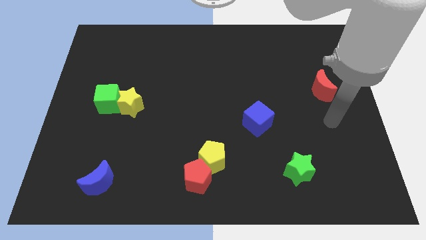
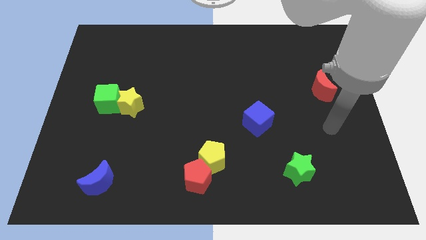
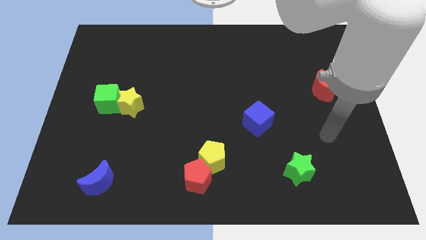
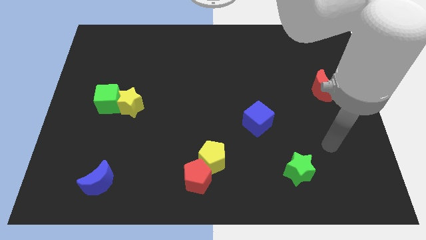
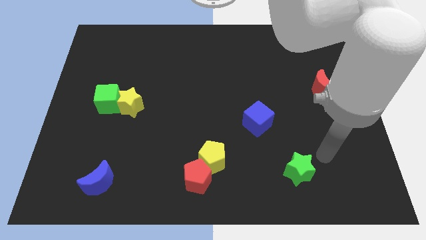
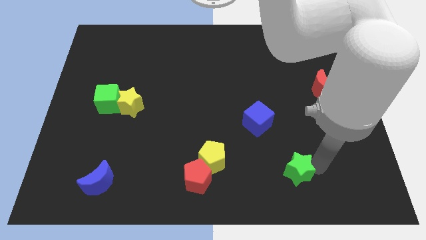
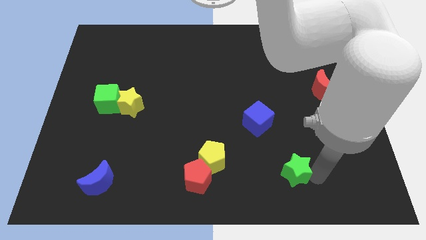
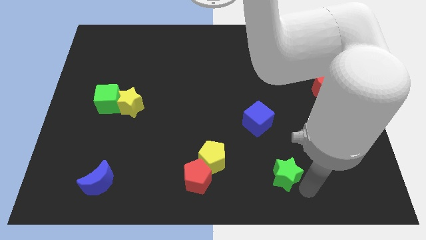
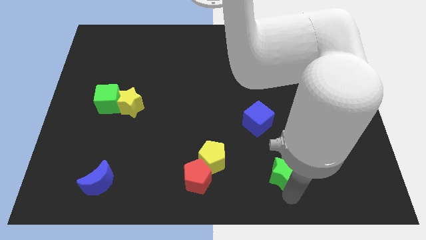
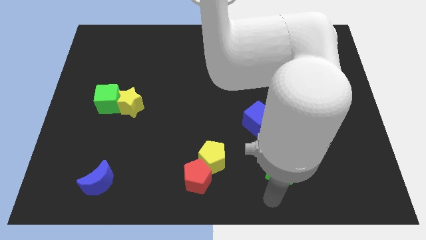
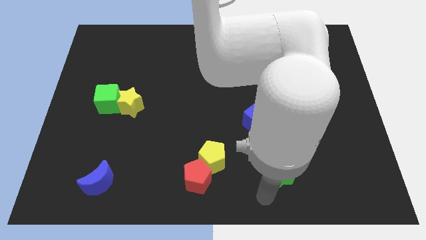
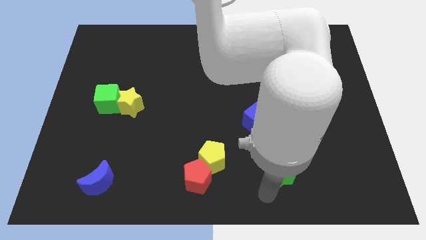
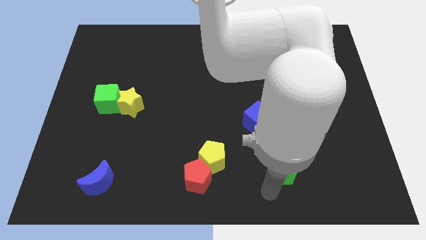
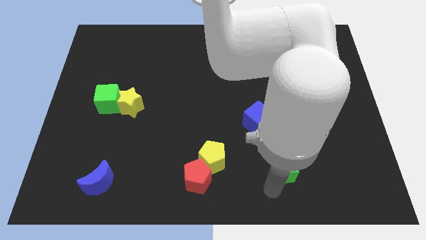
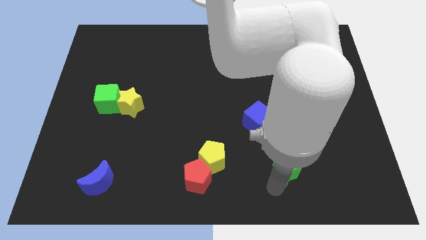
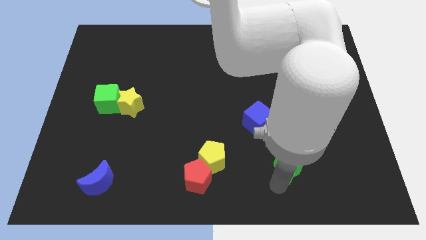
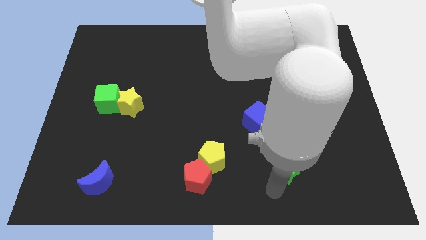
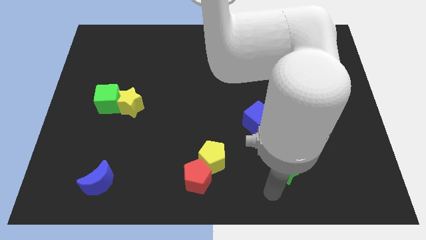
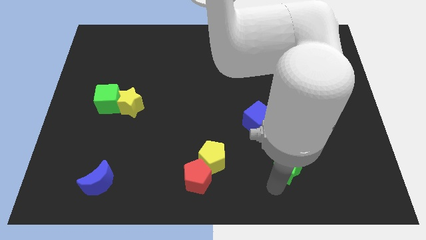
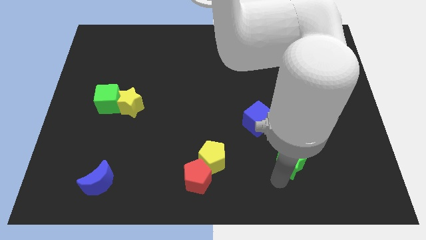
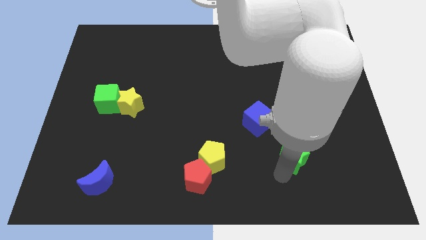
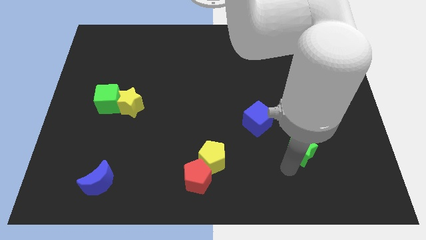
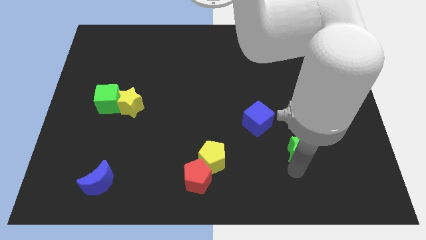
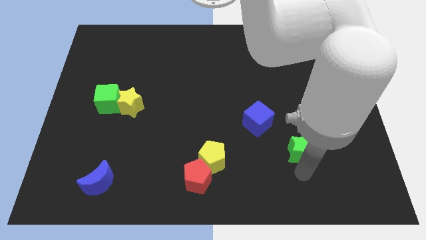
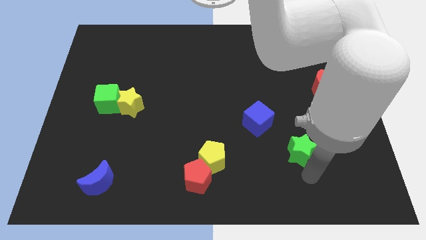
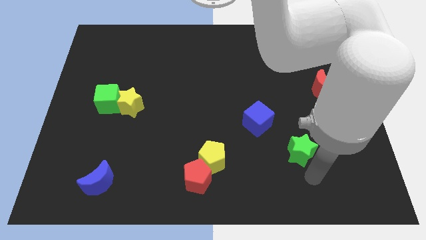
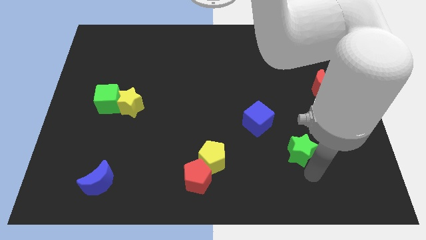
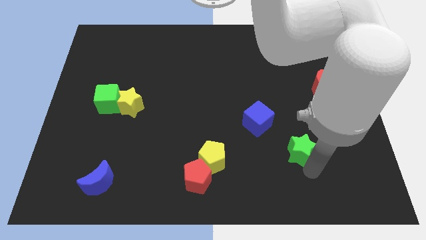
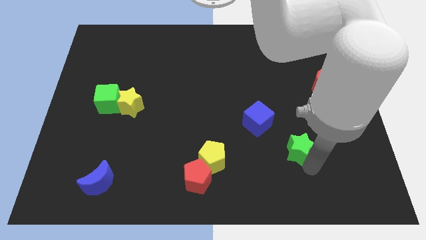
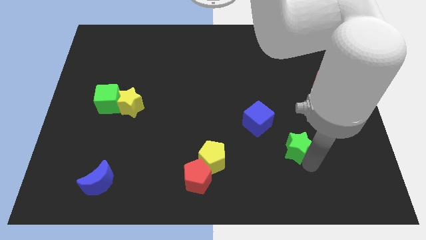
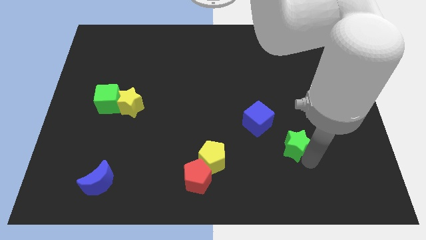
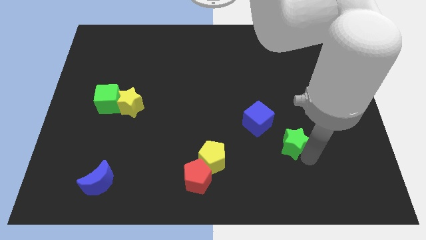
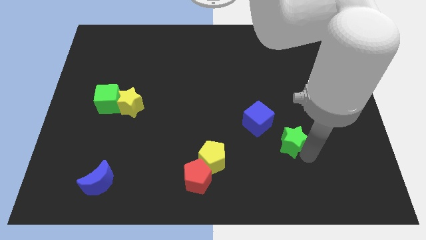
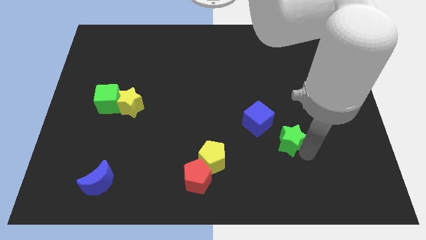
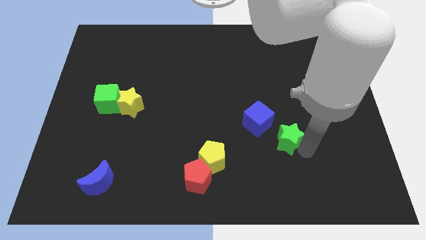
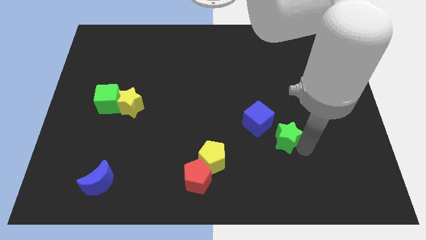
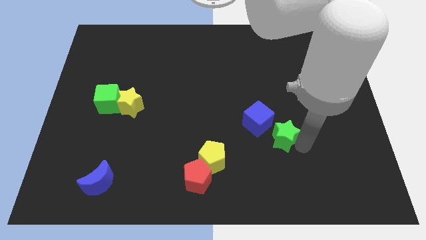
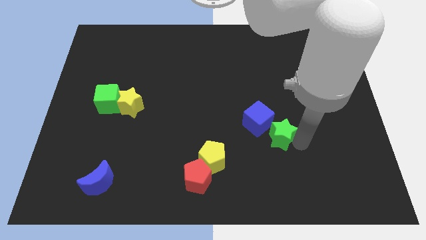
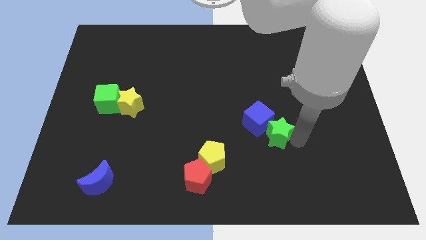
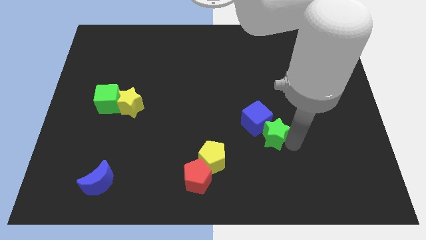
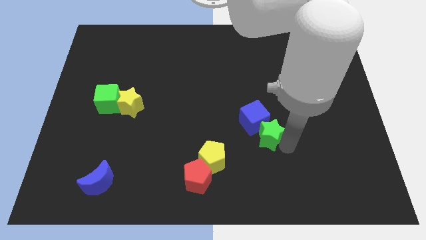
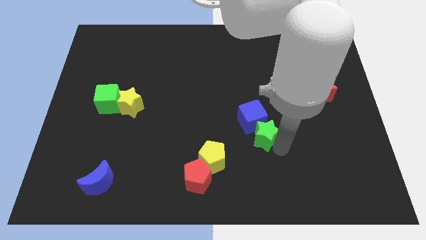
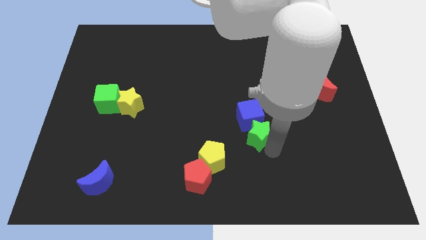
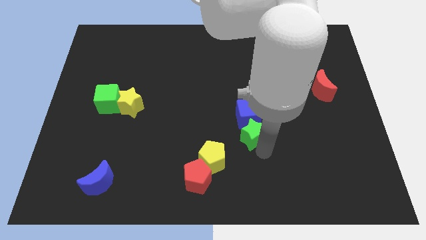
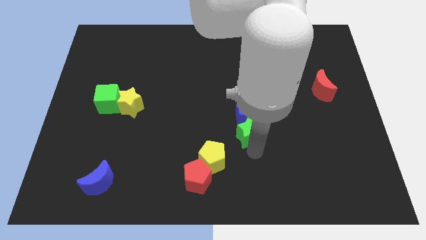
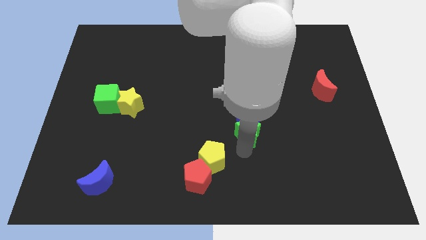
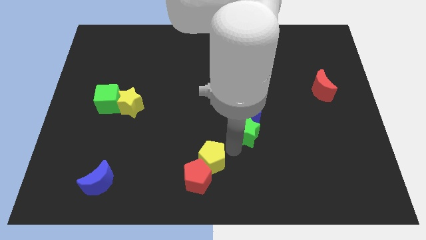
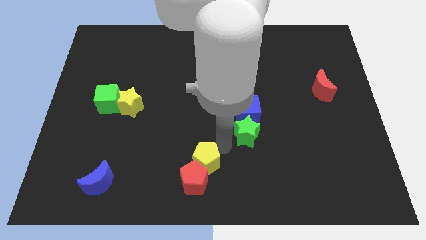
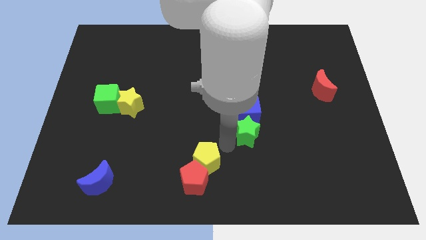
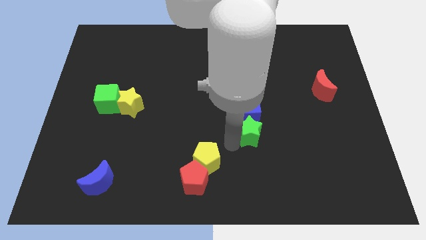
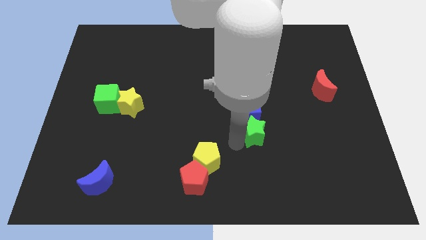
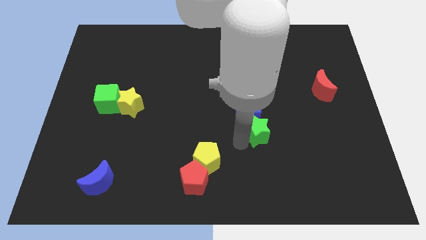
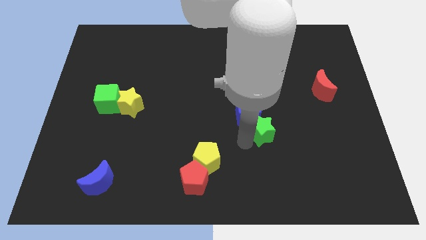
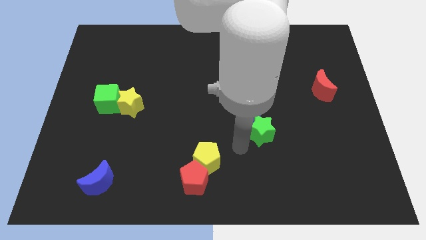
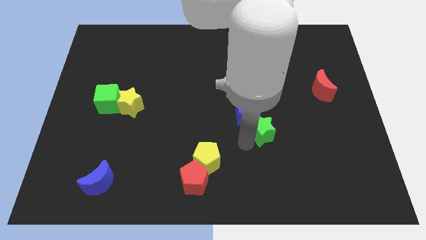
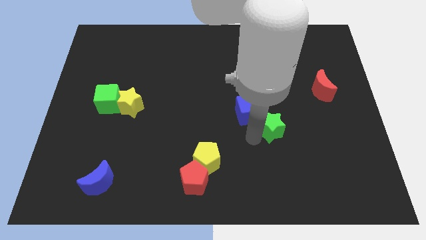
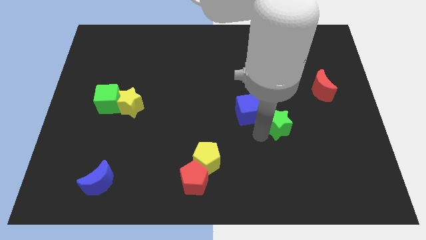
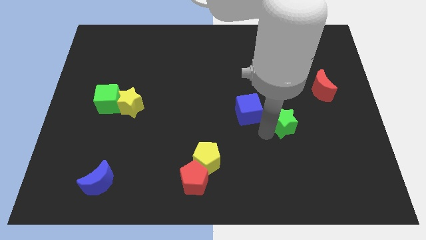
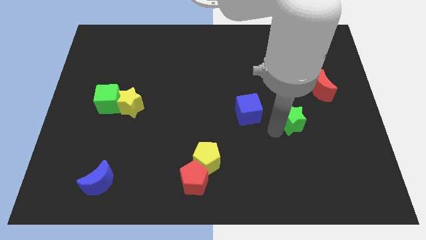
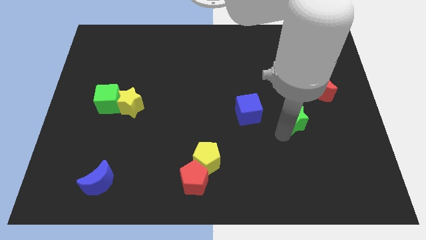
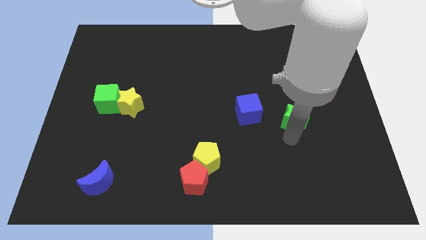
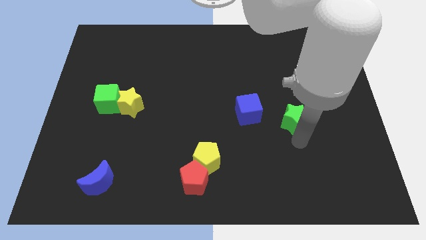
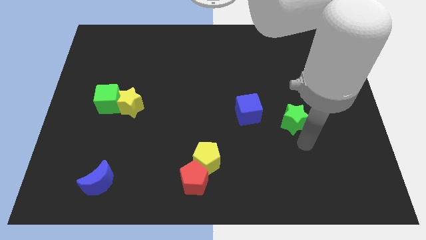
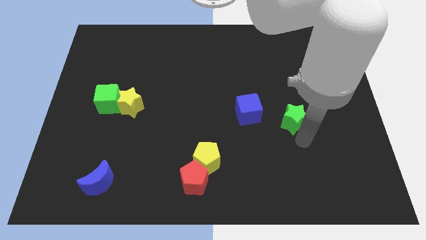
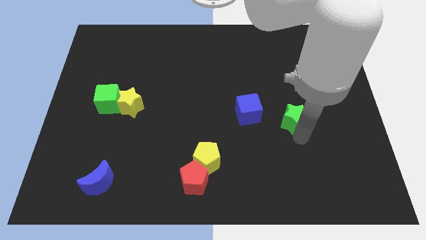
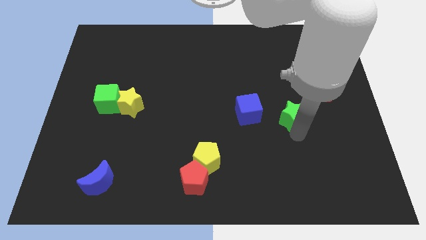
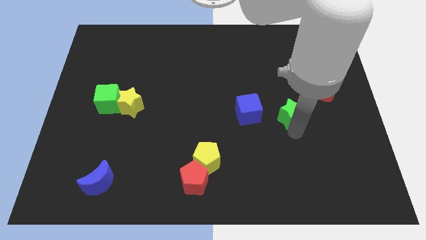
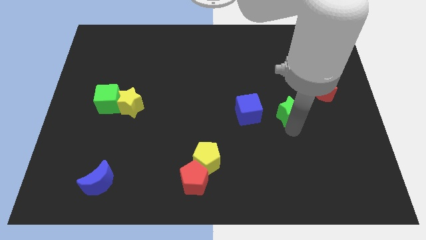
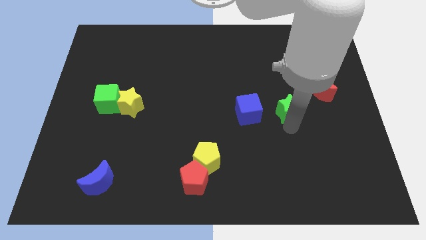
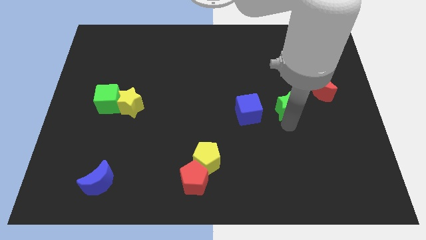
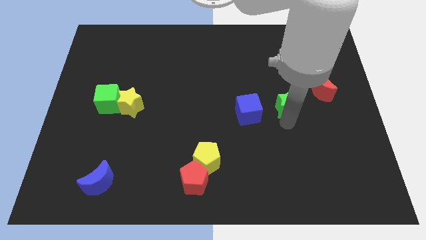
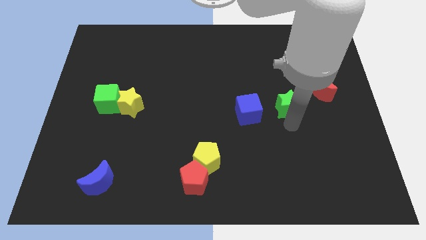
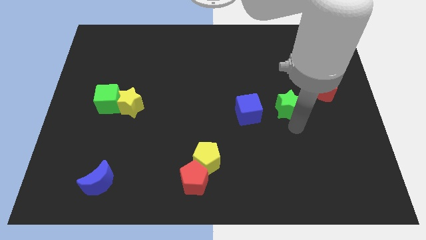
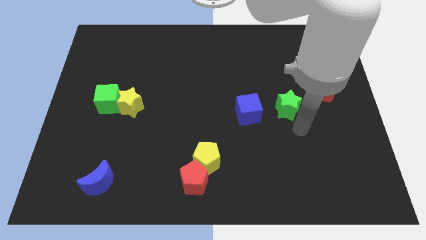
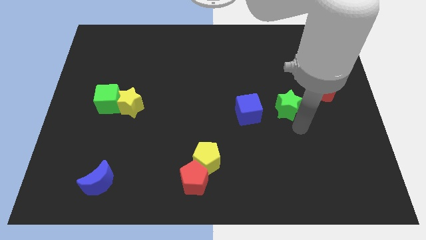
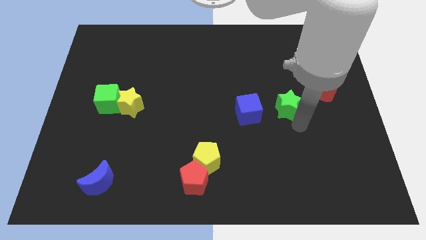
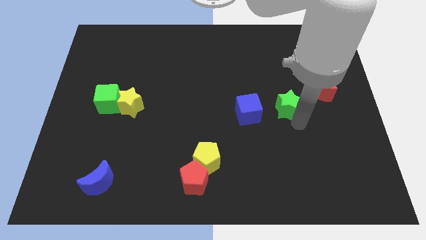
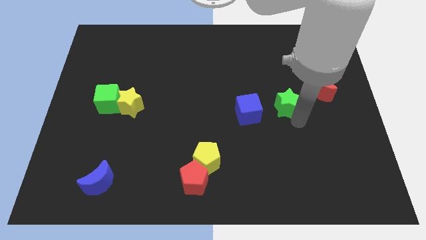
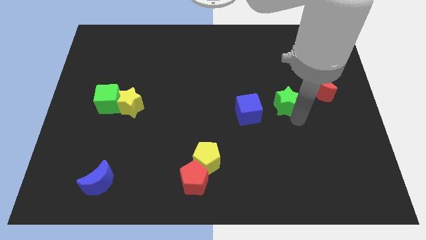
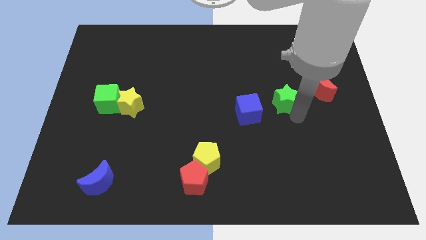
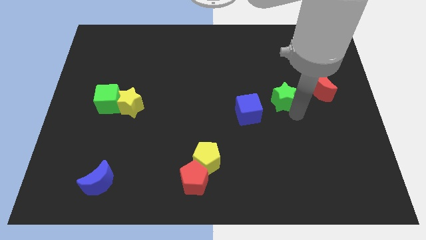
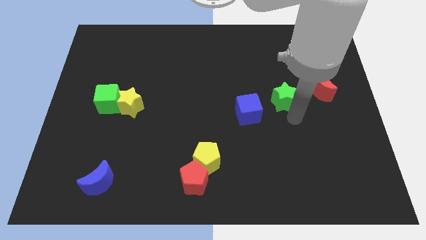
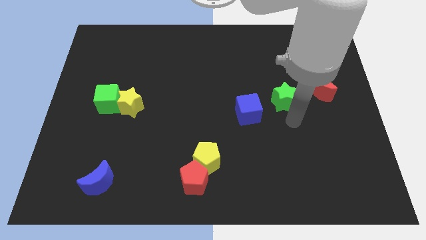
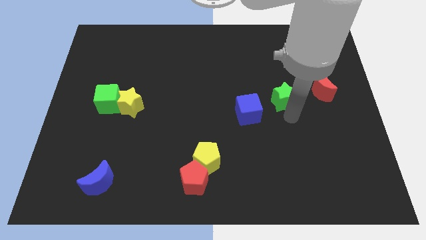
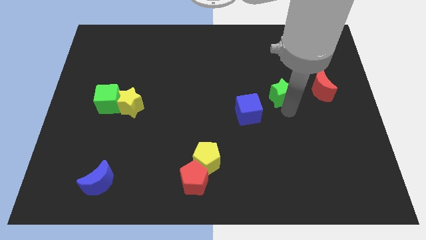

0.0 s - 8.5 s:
slide the green star up
